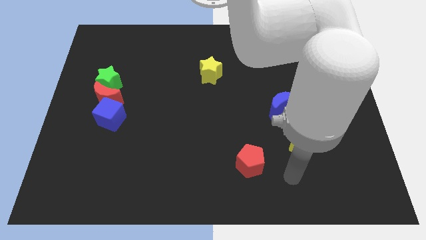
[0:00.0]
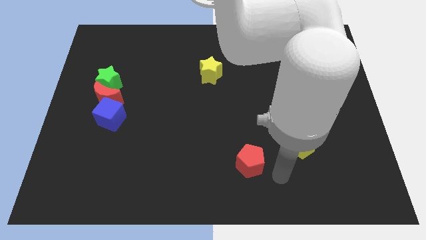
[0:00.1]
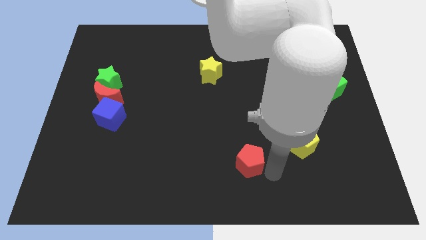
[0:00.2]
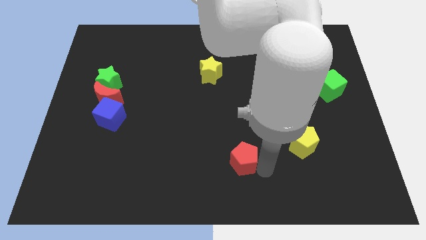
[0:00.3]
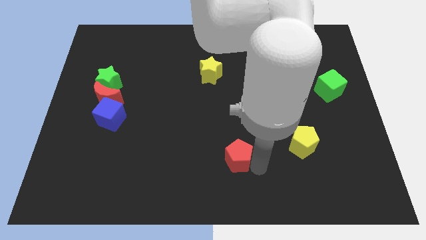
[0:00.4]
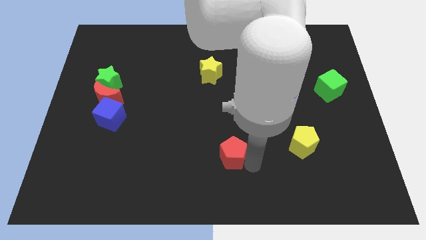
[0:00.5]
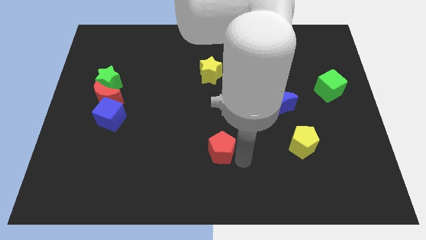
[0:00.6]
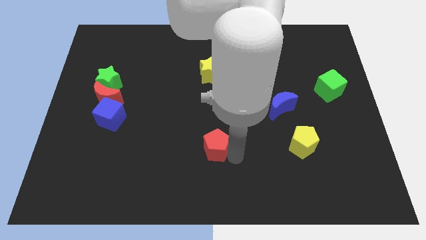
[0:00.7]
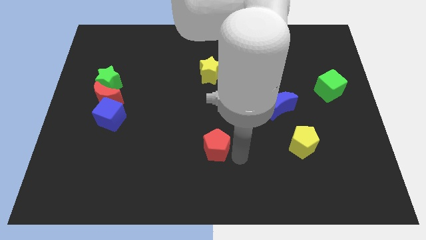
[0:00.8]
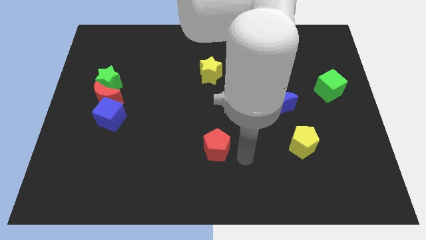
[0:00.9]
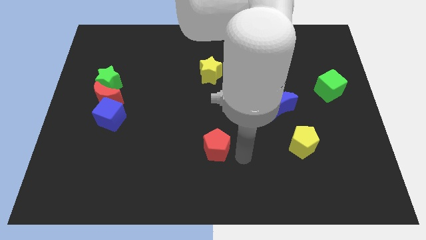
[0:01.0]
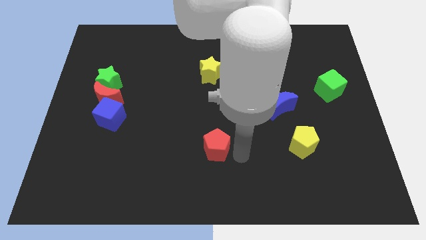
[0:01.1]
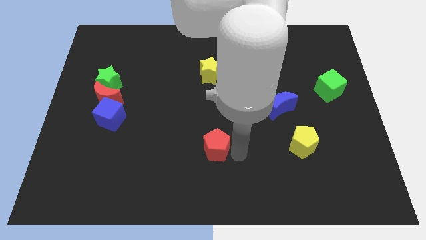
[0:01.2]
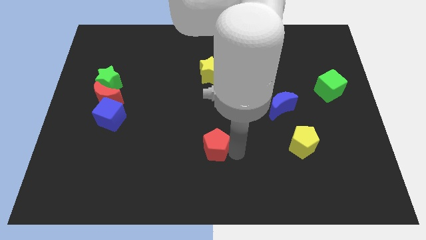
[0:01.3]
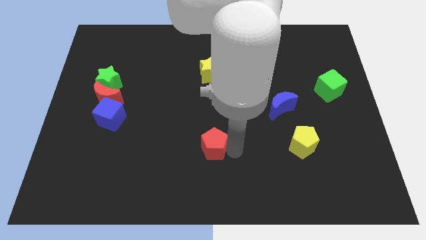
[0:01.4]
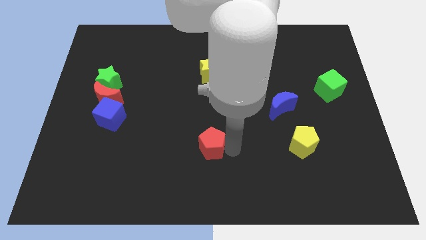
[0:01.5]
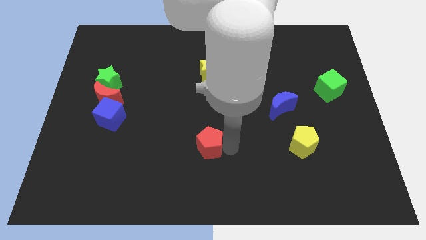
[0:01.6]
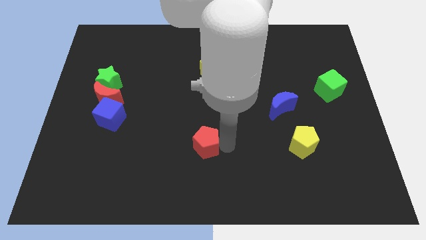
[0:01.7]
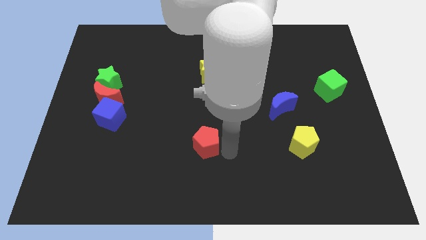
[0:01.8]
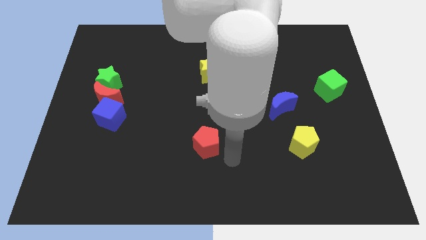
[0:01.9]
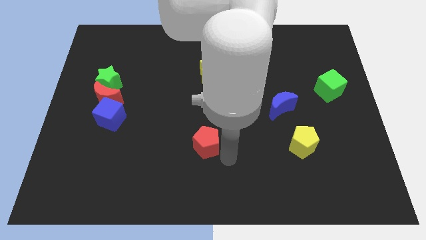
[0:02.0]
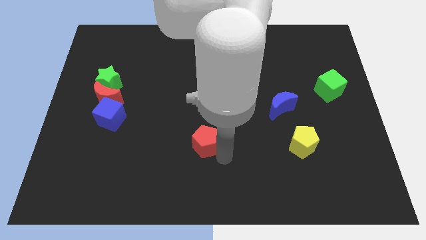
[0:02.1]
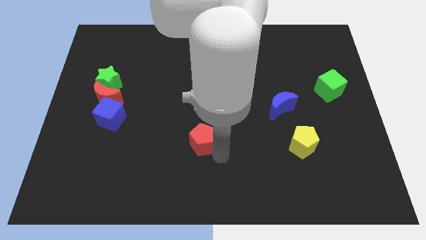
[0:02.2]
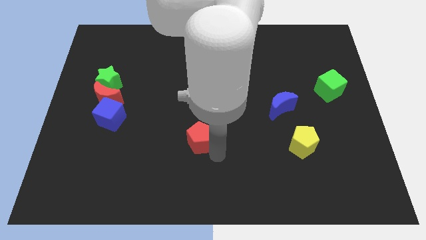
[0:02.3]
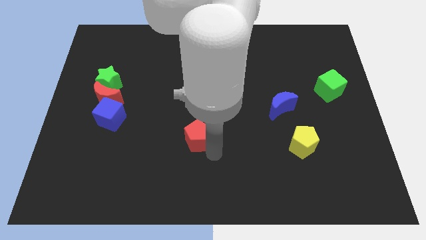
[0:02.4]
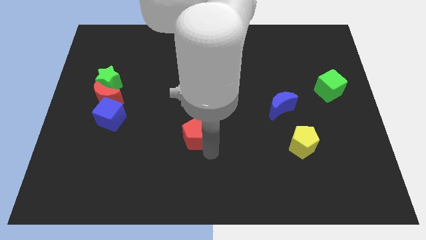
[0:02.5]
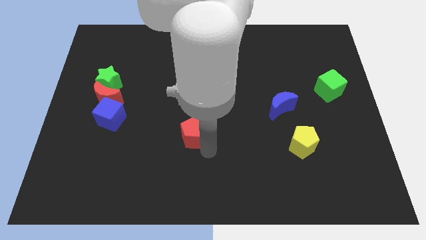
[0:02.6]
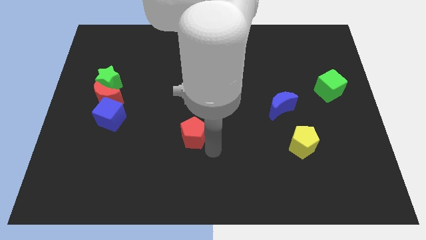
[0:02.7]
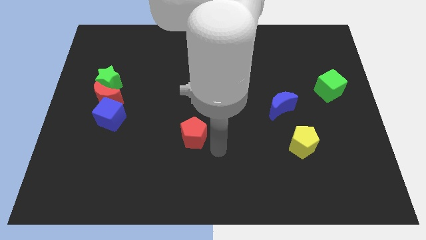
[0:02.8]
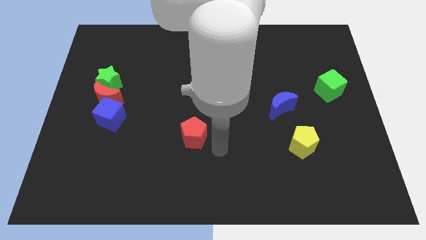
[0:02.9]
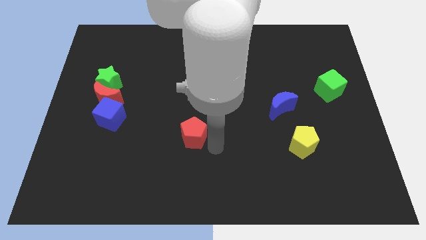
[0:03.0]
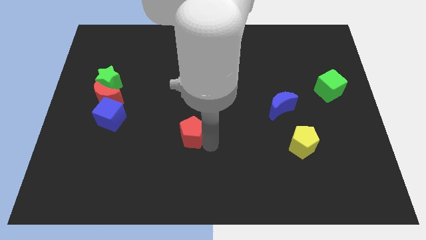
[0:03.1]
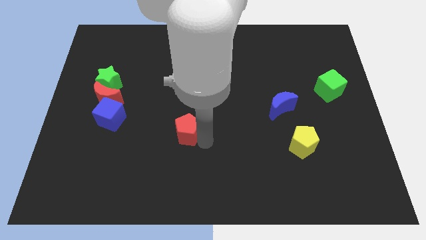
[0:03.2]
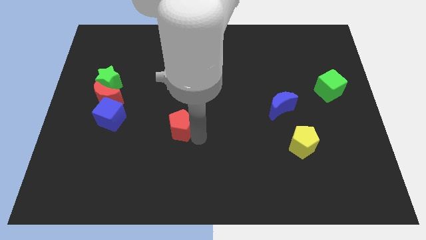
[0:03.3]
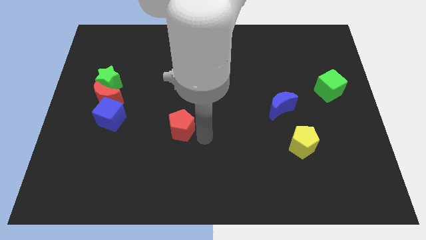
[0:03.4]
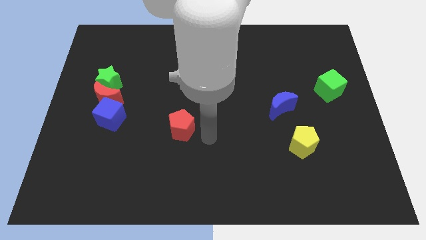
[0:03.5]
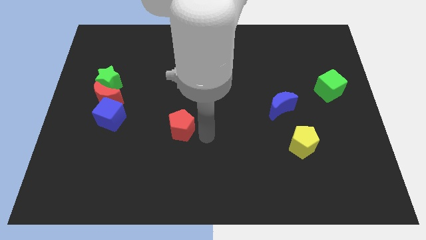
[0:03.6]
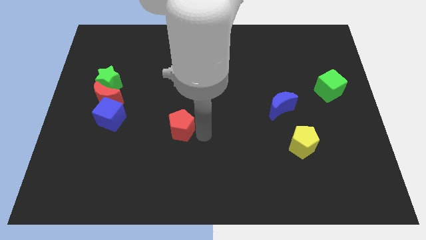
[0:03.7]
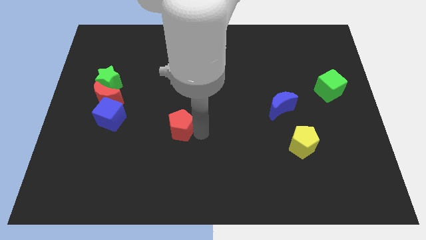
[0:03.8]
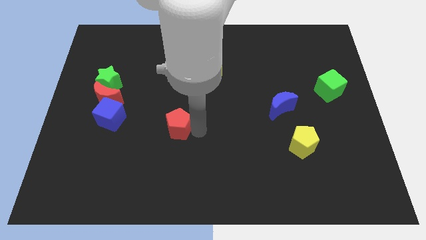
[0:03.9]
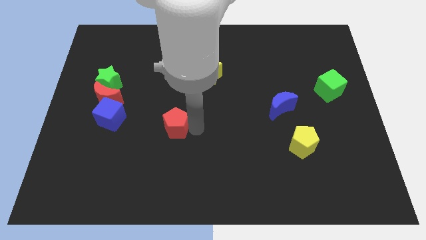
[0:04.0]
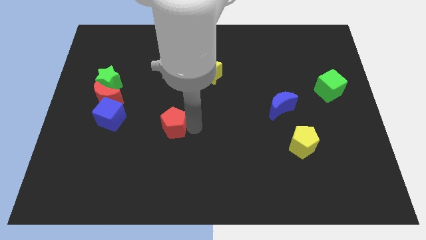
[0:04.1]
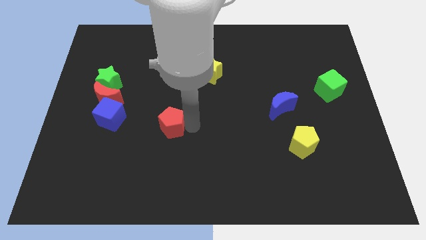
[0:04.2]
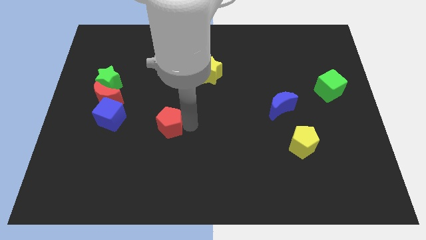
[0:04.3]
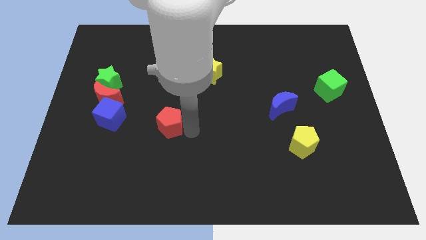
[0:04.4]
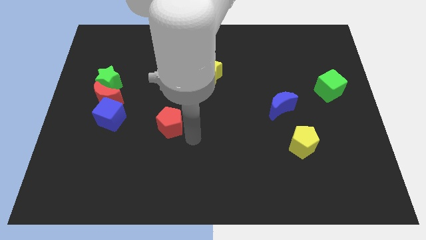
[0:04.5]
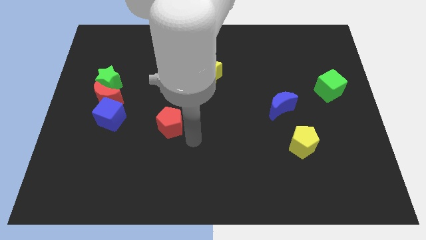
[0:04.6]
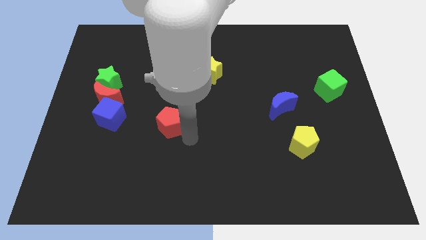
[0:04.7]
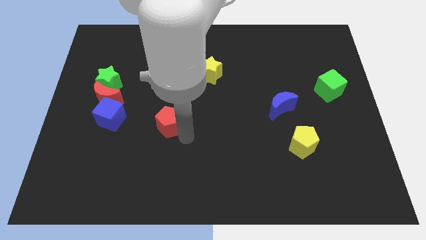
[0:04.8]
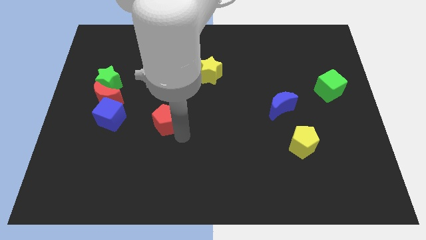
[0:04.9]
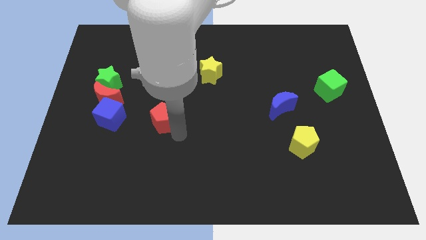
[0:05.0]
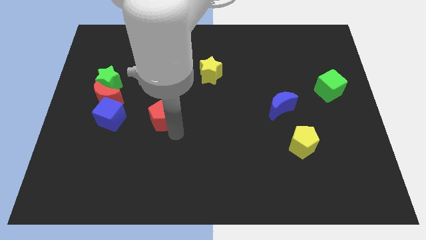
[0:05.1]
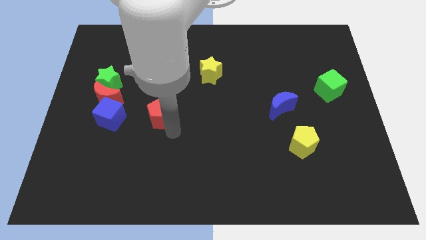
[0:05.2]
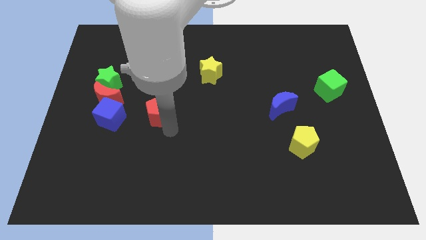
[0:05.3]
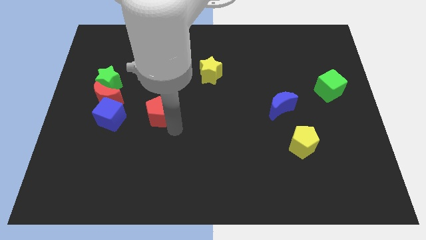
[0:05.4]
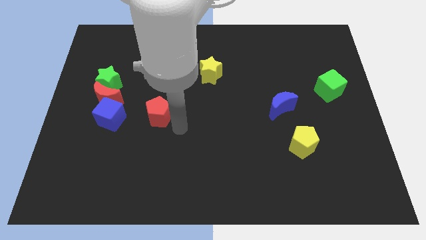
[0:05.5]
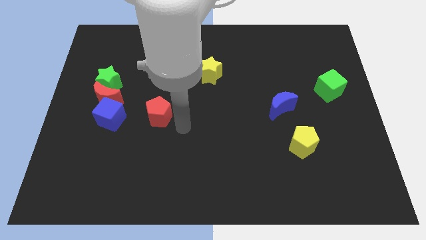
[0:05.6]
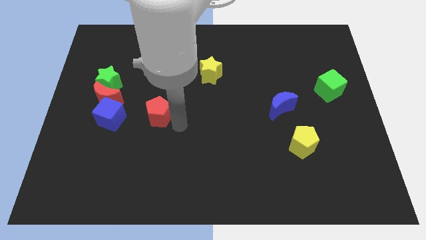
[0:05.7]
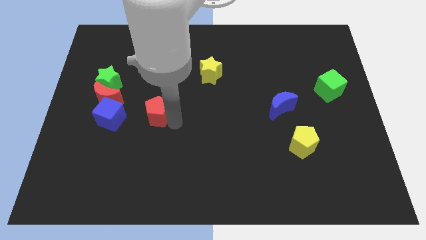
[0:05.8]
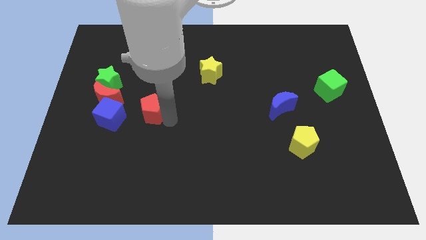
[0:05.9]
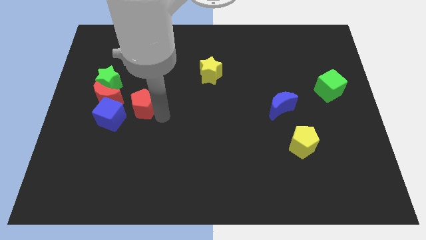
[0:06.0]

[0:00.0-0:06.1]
push the red pentagon diagonally down and to the right of the green star

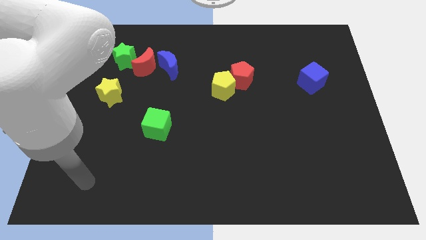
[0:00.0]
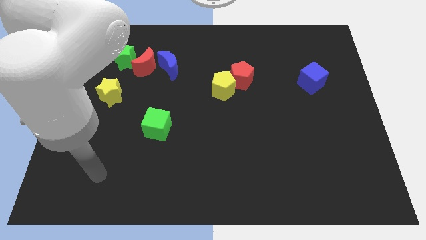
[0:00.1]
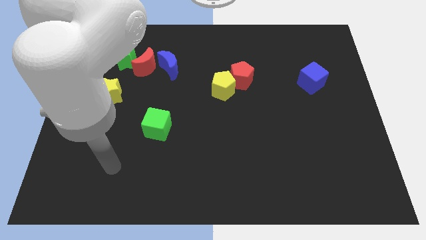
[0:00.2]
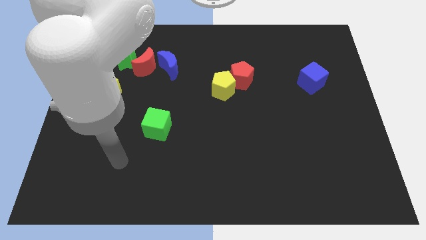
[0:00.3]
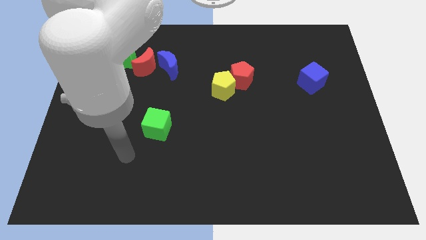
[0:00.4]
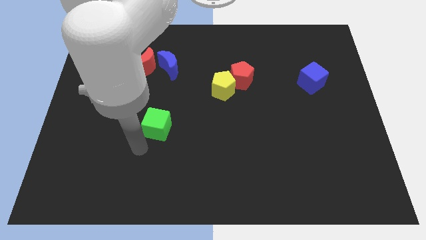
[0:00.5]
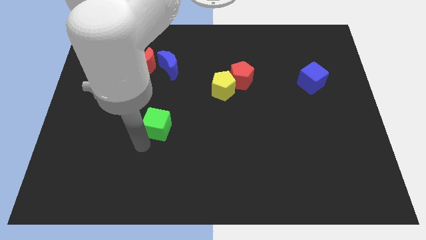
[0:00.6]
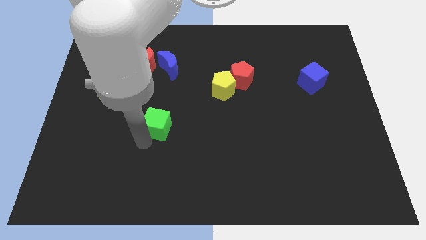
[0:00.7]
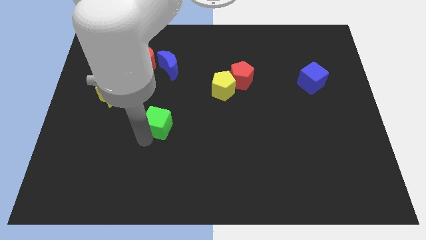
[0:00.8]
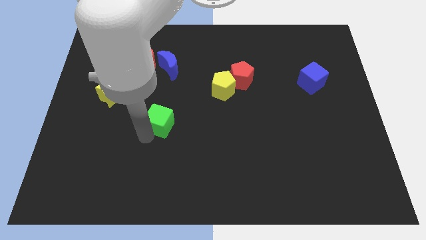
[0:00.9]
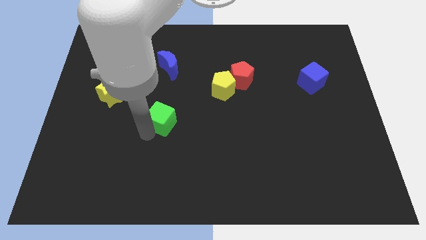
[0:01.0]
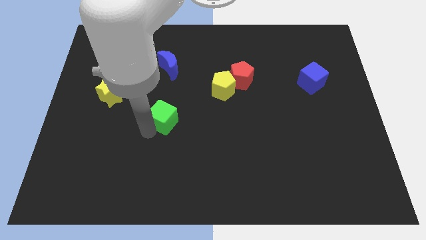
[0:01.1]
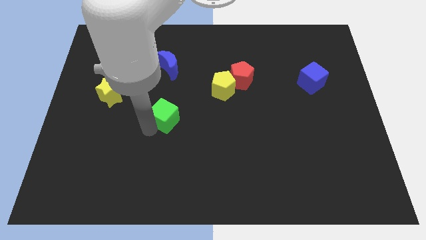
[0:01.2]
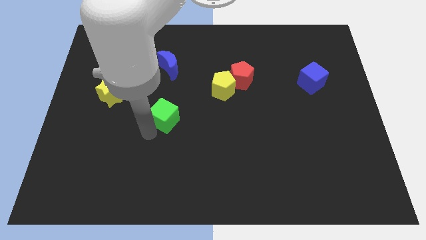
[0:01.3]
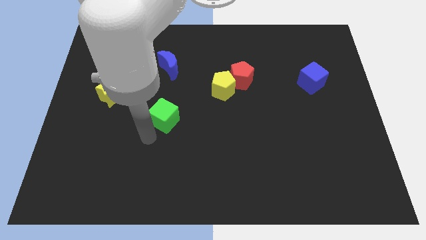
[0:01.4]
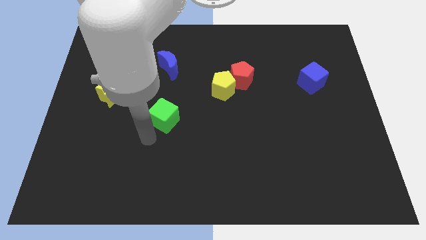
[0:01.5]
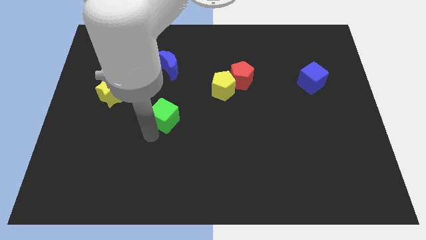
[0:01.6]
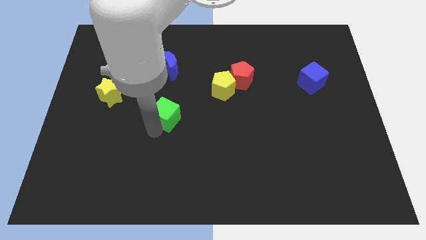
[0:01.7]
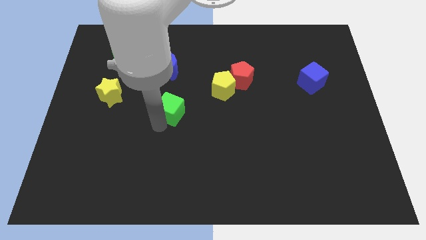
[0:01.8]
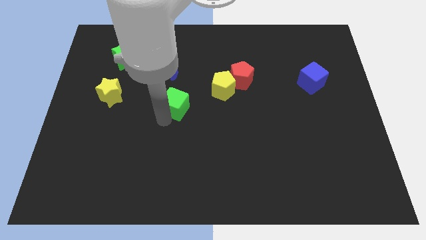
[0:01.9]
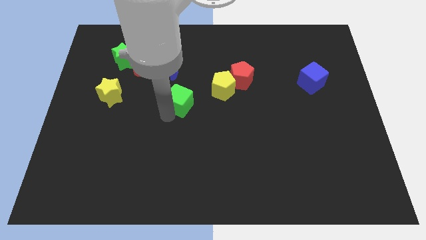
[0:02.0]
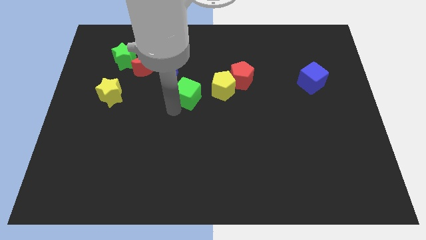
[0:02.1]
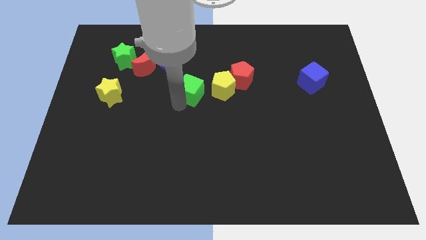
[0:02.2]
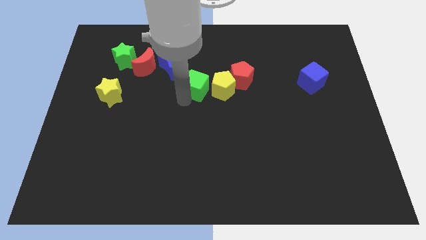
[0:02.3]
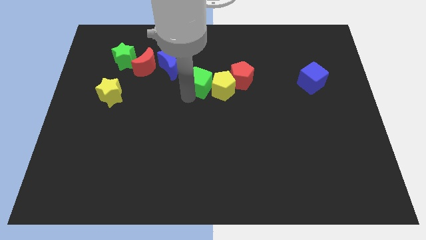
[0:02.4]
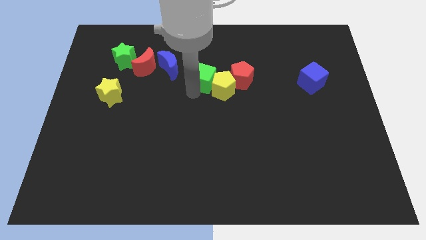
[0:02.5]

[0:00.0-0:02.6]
push the green cube to the right side of the blue moon
